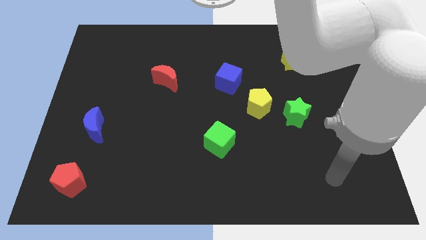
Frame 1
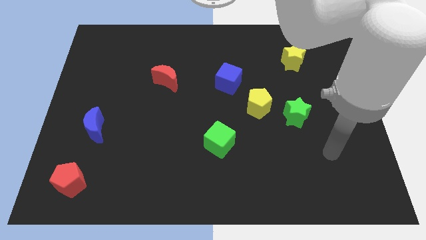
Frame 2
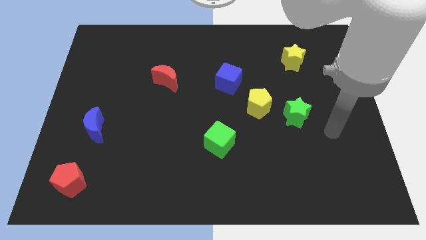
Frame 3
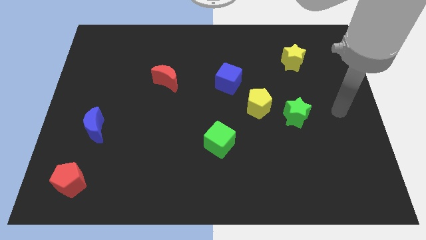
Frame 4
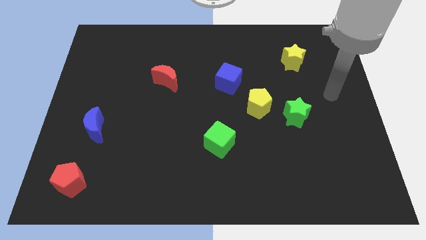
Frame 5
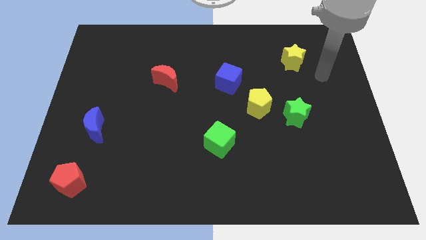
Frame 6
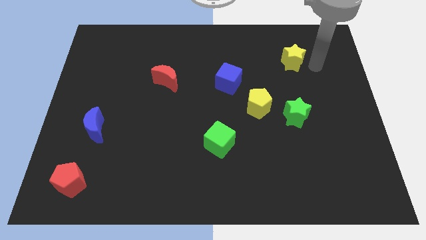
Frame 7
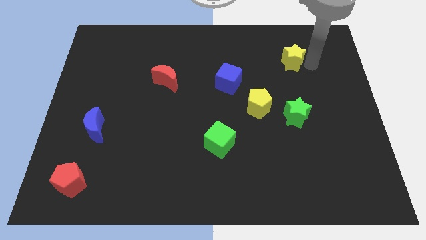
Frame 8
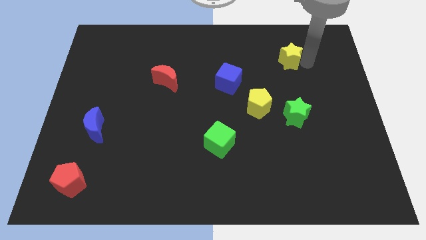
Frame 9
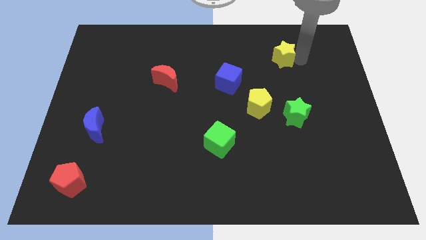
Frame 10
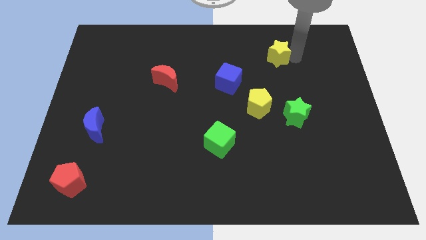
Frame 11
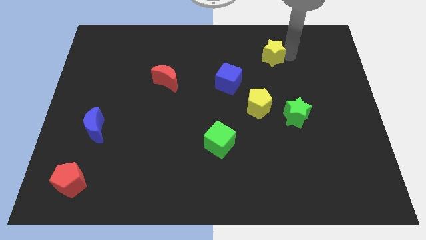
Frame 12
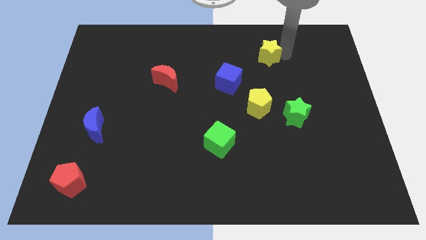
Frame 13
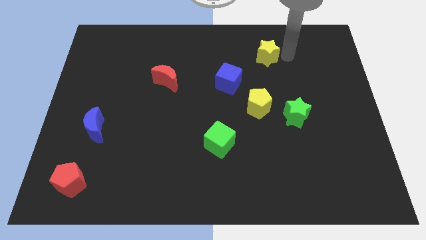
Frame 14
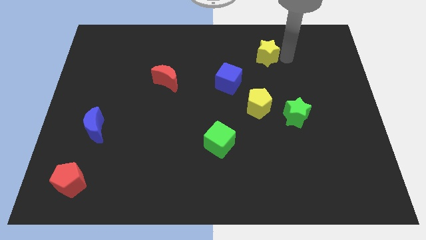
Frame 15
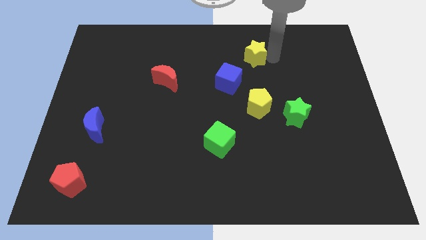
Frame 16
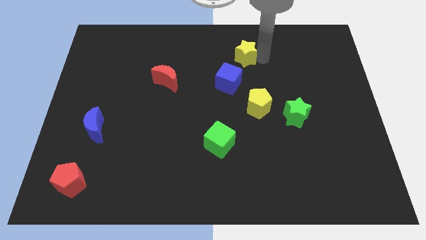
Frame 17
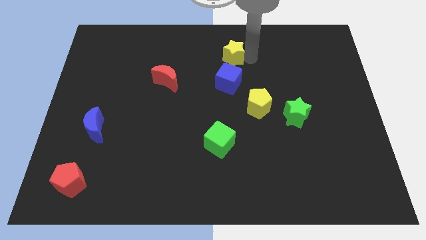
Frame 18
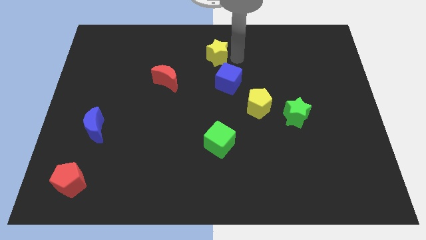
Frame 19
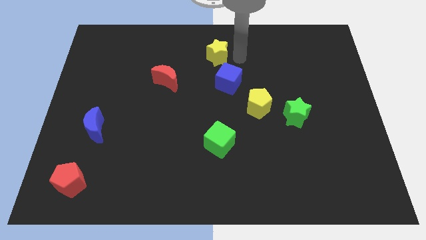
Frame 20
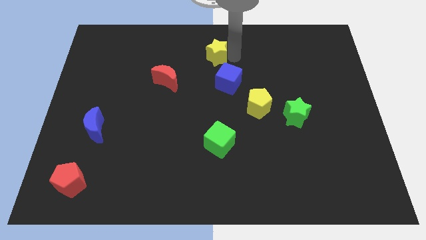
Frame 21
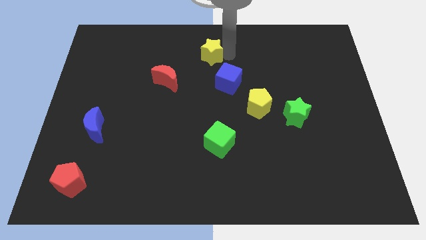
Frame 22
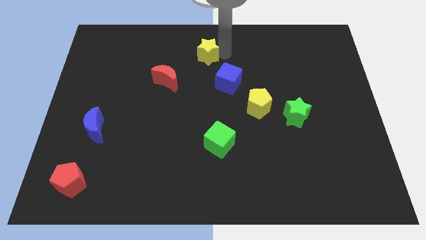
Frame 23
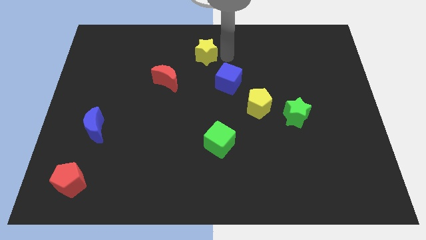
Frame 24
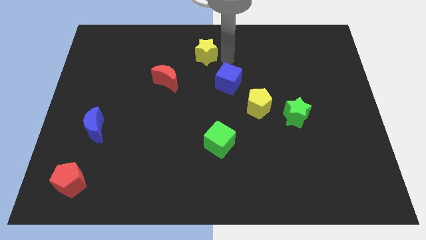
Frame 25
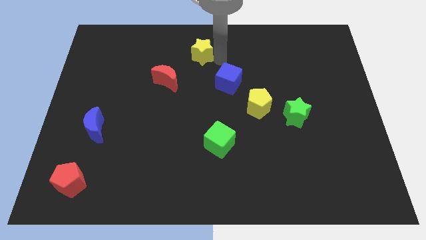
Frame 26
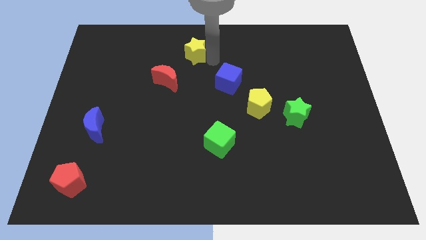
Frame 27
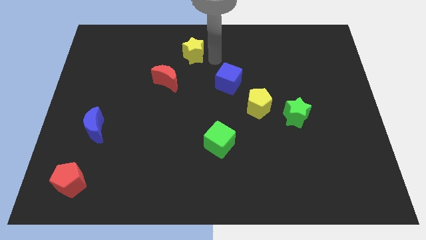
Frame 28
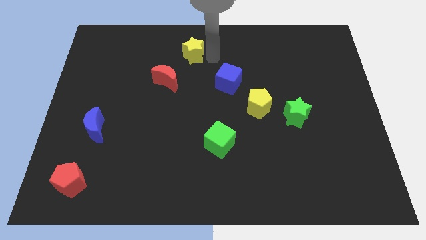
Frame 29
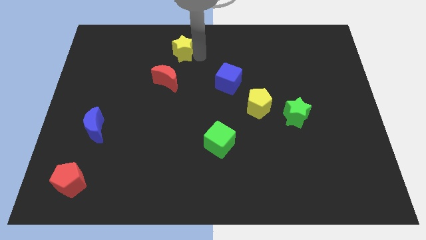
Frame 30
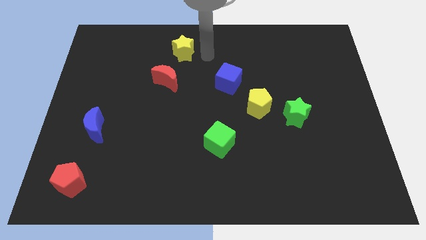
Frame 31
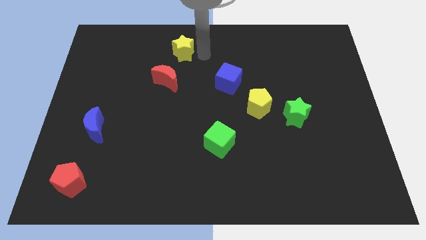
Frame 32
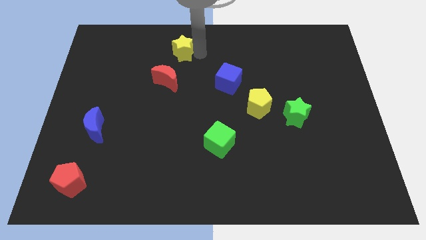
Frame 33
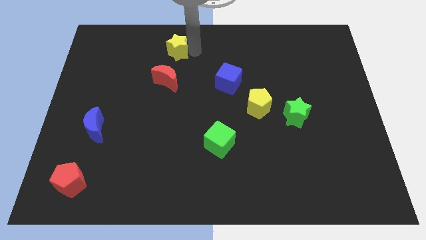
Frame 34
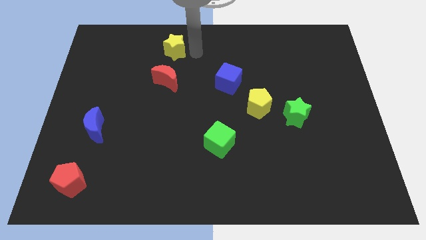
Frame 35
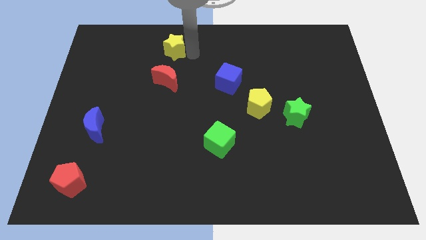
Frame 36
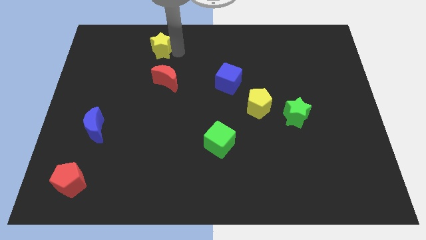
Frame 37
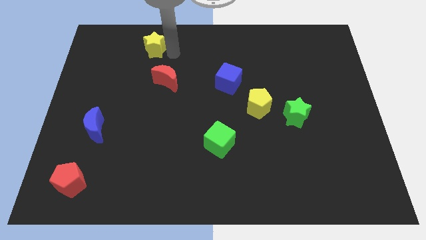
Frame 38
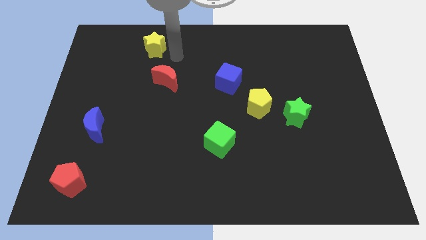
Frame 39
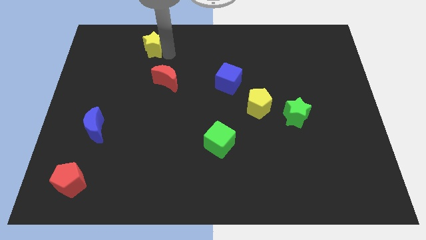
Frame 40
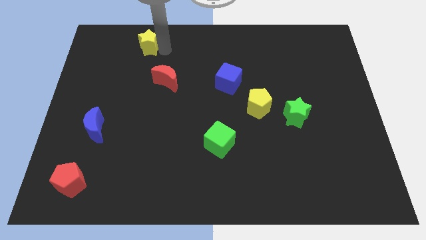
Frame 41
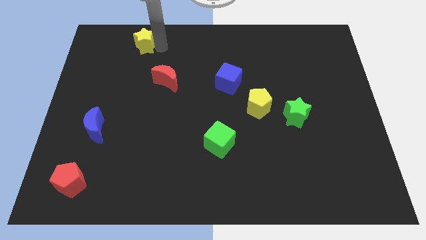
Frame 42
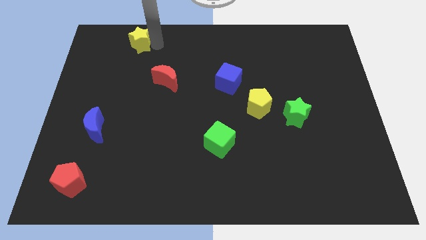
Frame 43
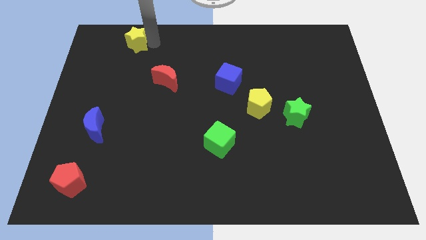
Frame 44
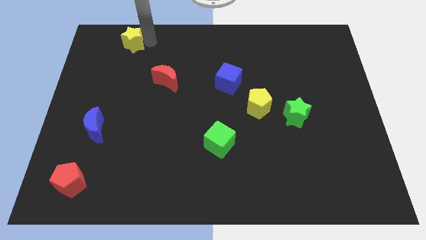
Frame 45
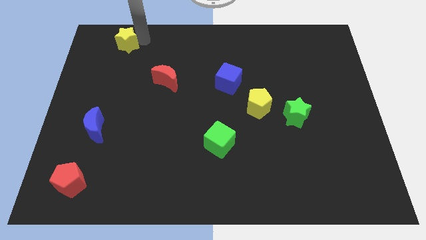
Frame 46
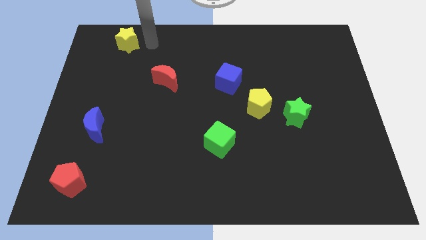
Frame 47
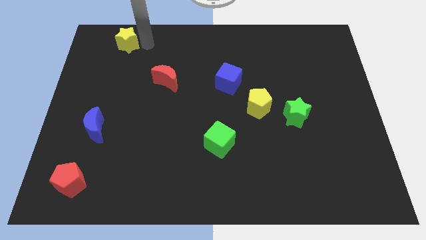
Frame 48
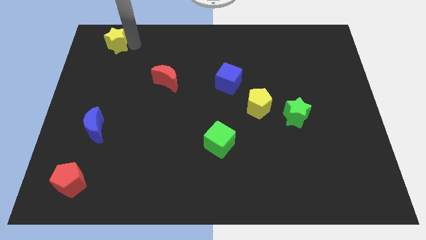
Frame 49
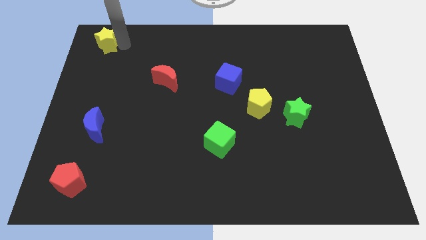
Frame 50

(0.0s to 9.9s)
push the yellow star to the top left

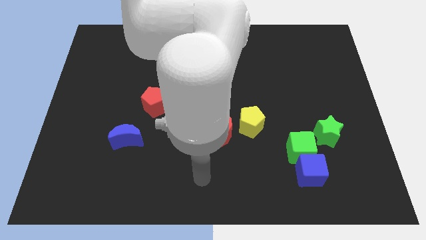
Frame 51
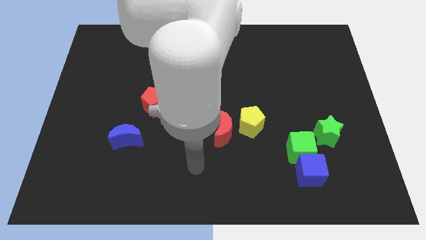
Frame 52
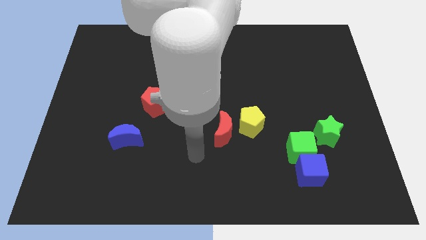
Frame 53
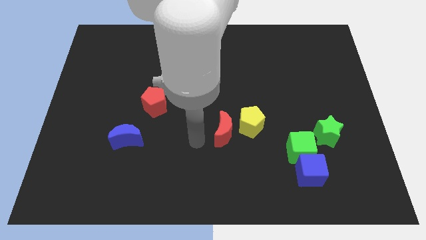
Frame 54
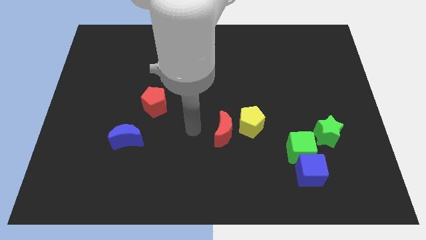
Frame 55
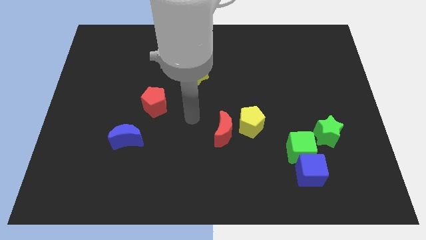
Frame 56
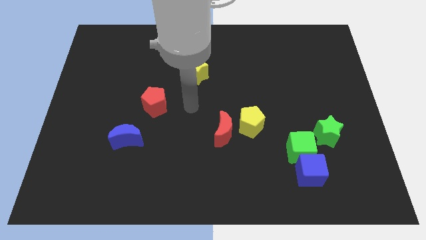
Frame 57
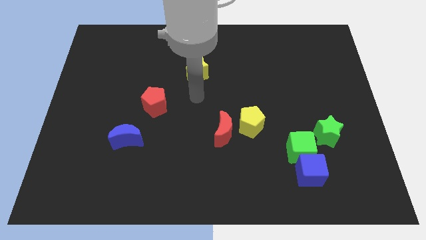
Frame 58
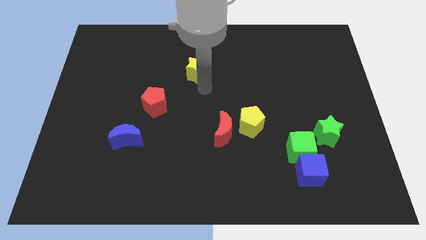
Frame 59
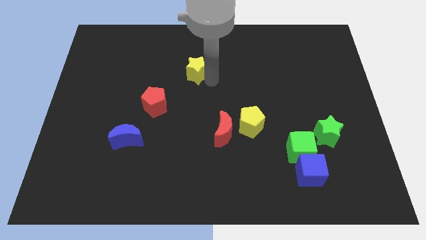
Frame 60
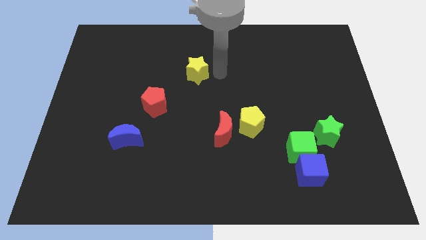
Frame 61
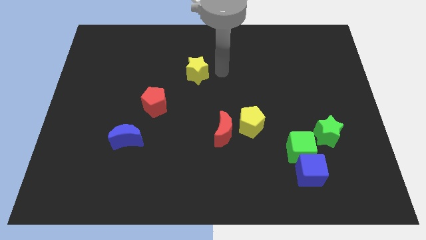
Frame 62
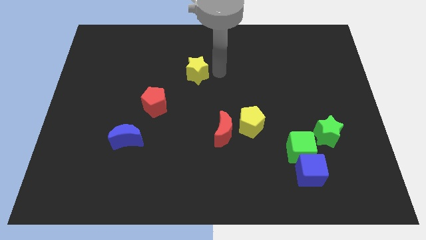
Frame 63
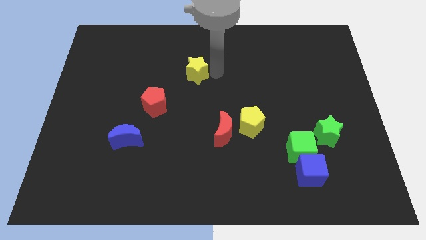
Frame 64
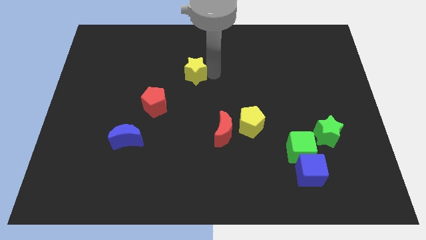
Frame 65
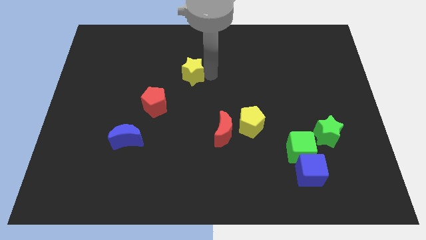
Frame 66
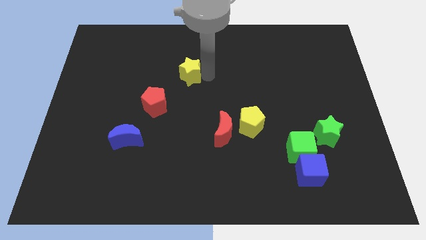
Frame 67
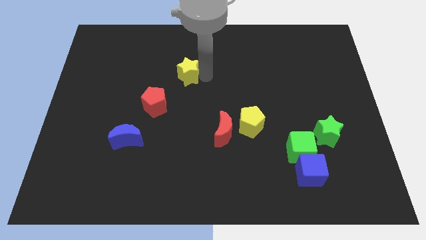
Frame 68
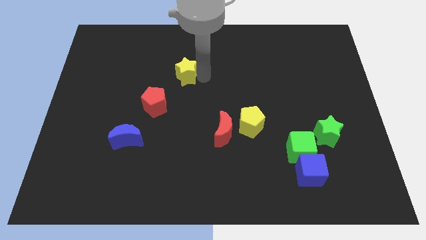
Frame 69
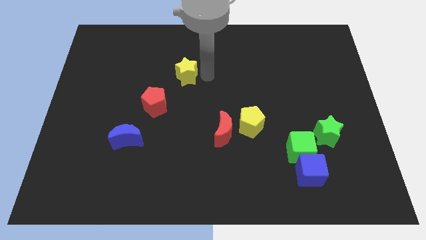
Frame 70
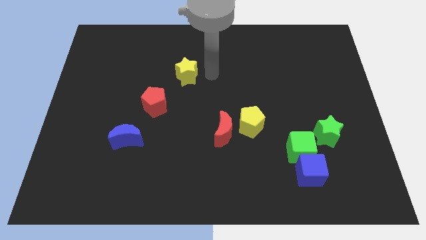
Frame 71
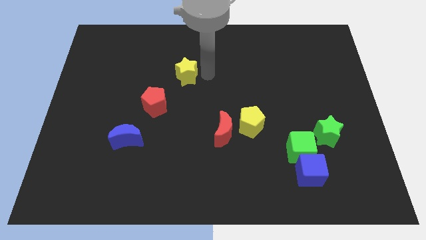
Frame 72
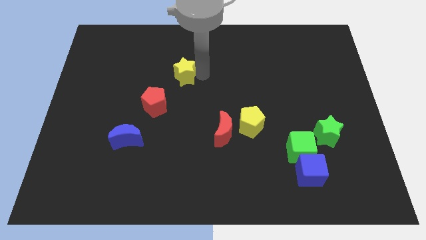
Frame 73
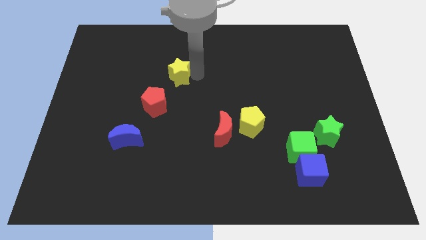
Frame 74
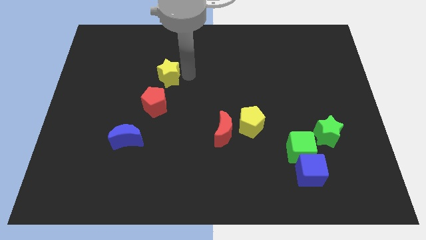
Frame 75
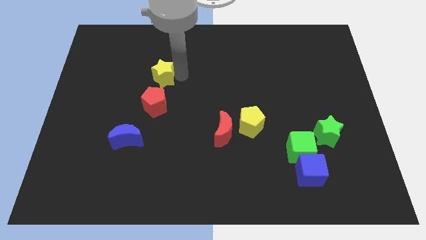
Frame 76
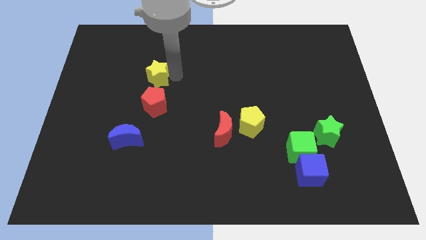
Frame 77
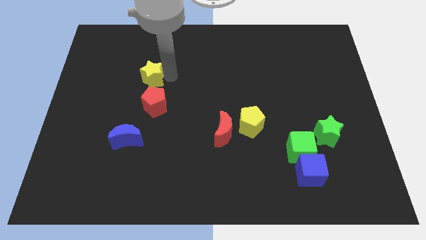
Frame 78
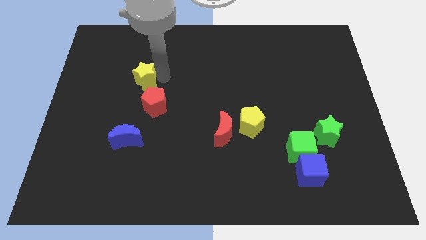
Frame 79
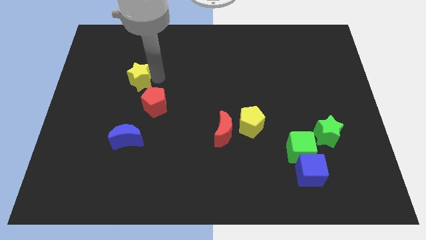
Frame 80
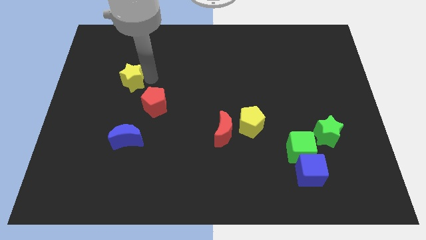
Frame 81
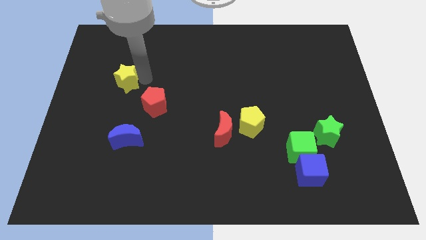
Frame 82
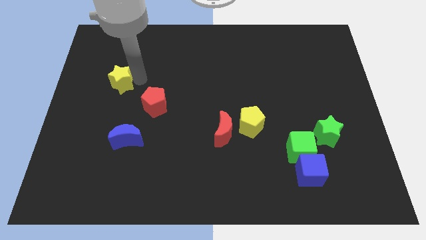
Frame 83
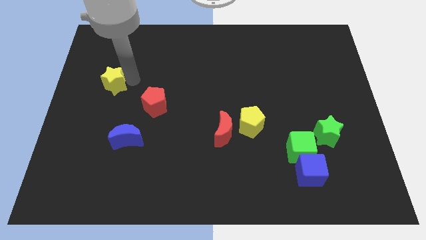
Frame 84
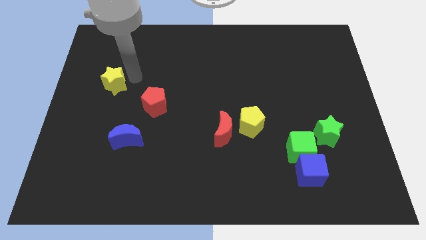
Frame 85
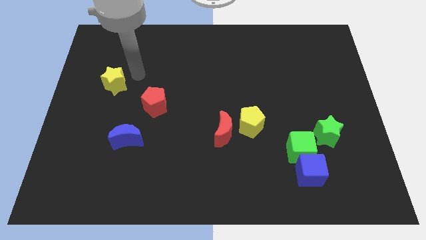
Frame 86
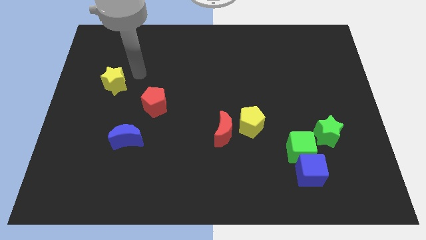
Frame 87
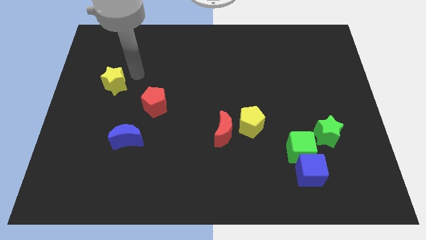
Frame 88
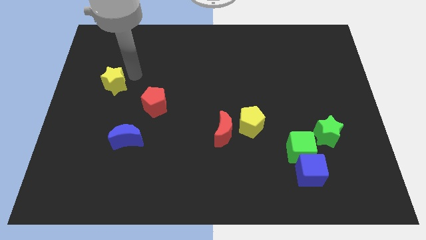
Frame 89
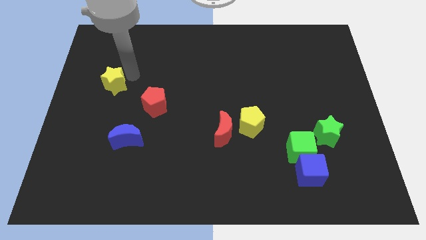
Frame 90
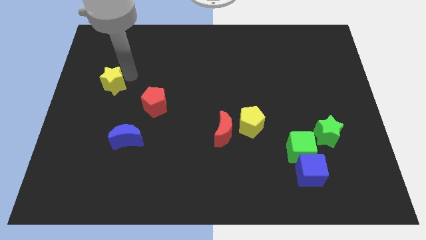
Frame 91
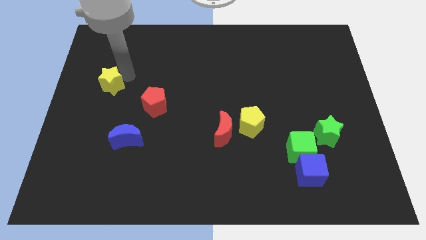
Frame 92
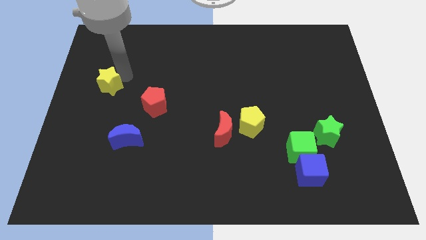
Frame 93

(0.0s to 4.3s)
push the yellow star to the left side of the board
